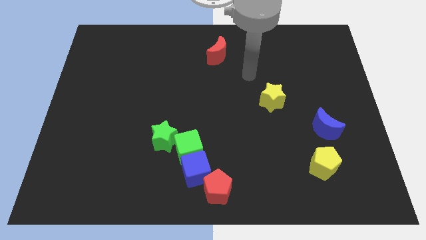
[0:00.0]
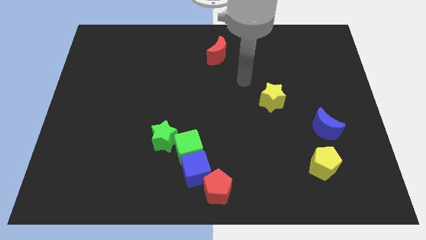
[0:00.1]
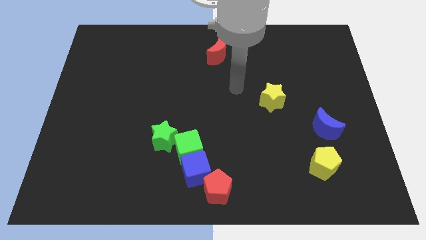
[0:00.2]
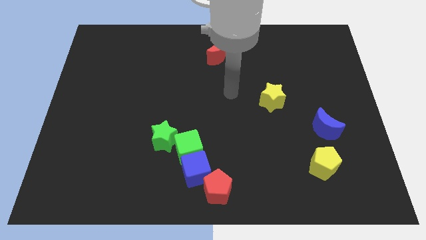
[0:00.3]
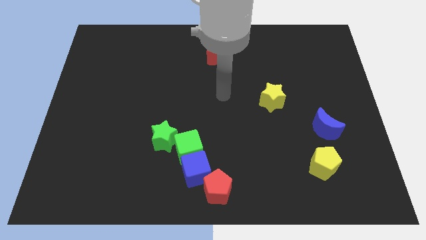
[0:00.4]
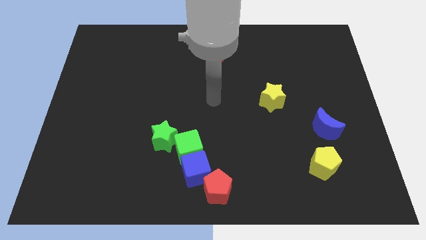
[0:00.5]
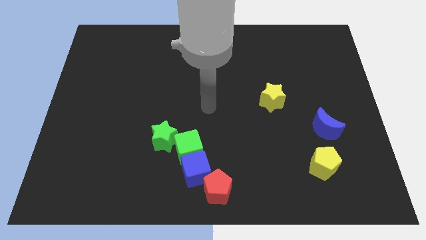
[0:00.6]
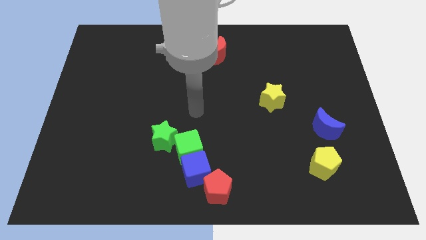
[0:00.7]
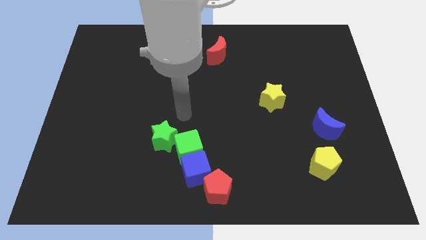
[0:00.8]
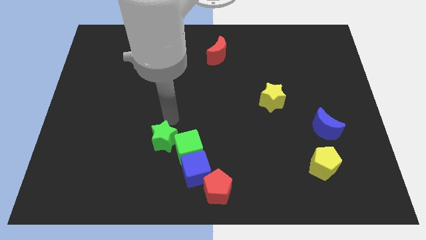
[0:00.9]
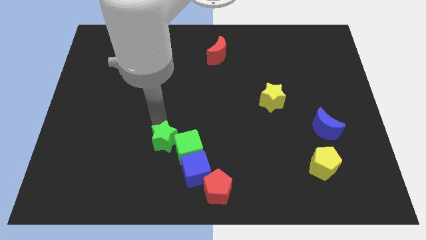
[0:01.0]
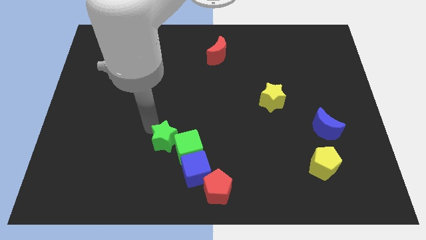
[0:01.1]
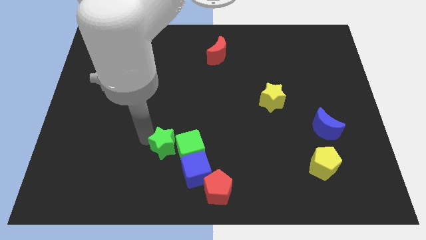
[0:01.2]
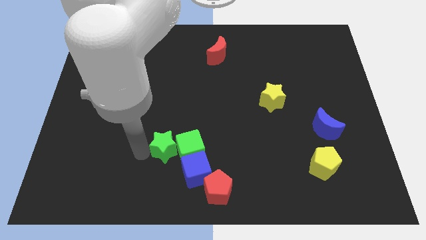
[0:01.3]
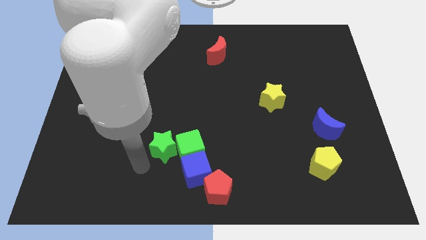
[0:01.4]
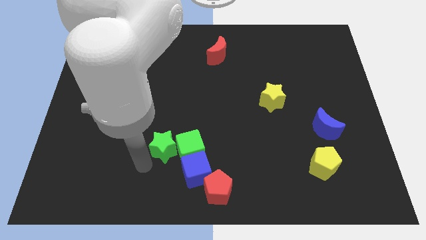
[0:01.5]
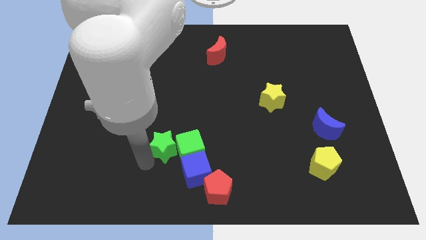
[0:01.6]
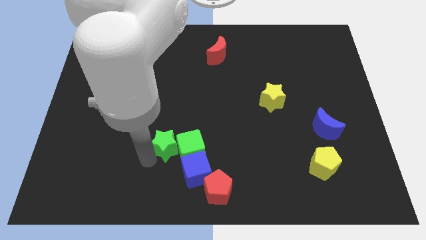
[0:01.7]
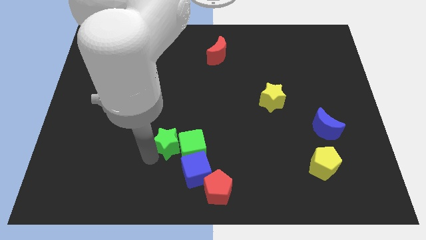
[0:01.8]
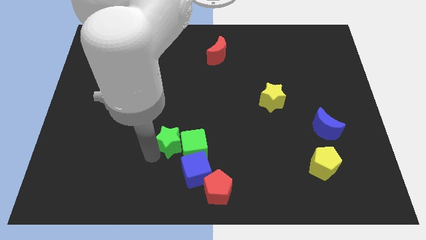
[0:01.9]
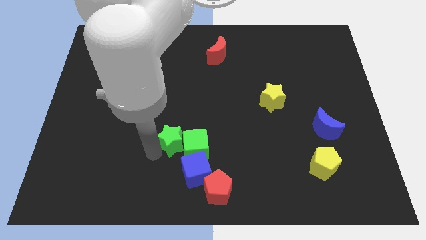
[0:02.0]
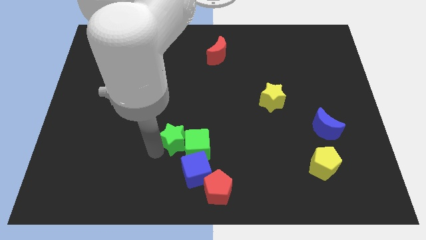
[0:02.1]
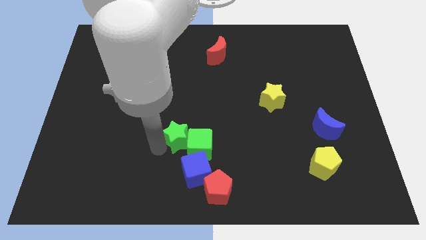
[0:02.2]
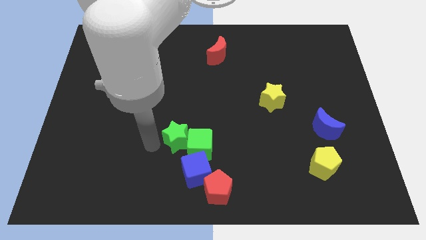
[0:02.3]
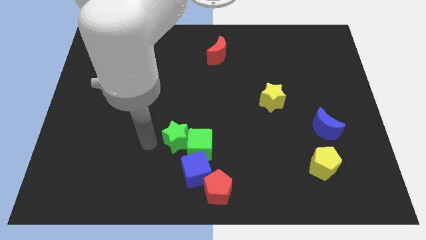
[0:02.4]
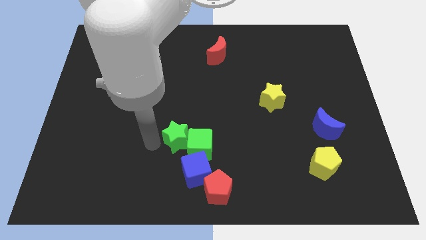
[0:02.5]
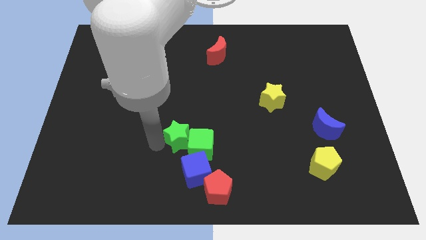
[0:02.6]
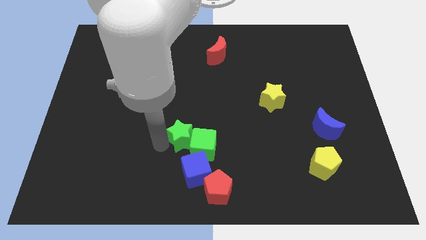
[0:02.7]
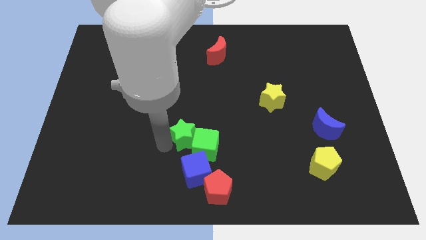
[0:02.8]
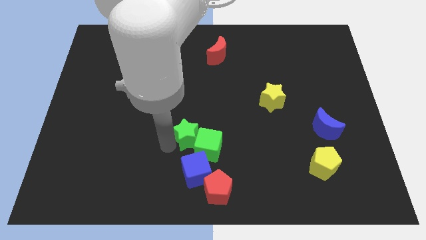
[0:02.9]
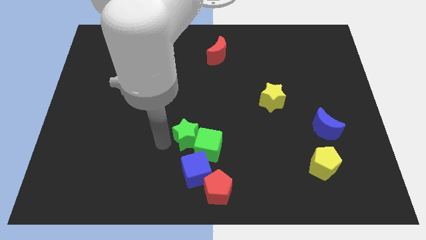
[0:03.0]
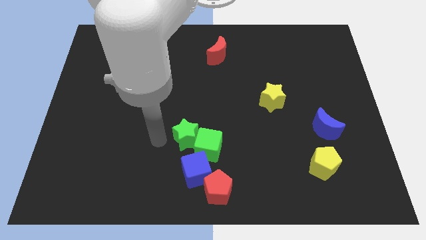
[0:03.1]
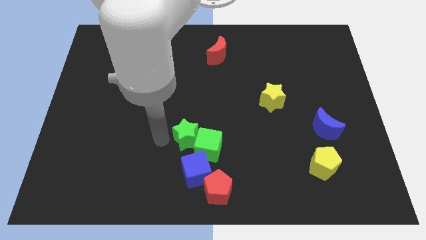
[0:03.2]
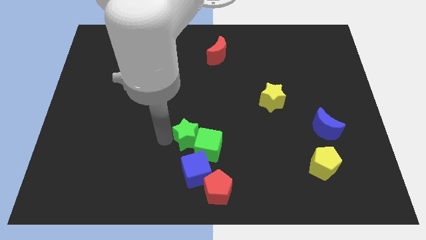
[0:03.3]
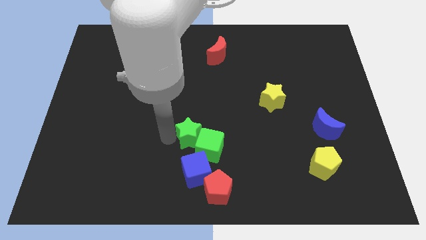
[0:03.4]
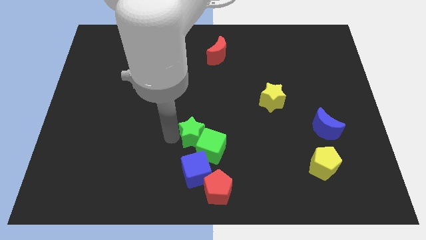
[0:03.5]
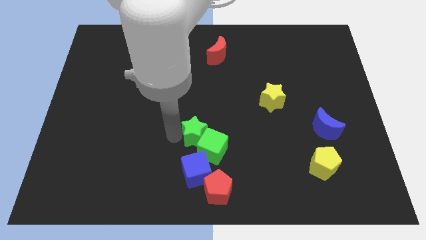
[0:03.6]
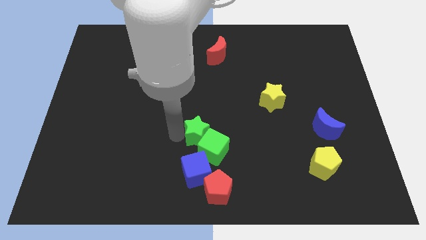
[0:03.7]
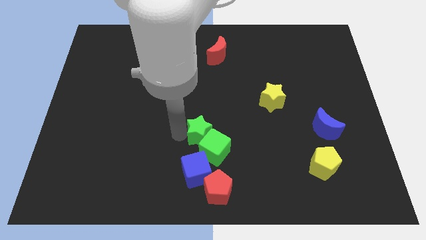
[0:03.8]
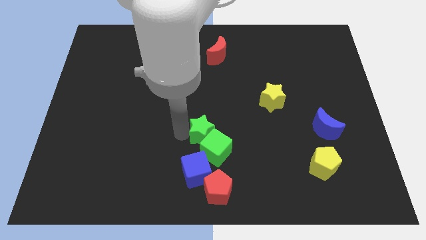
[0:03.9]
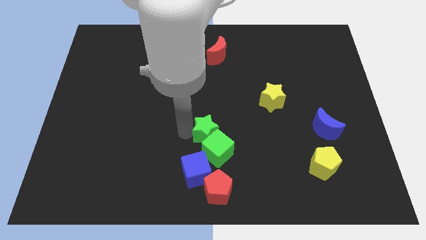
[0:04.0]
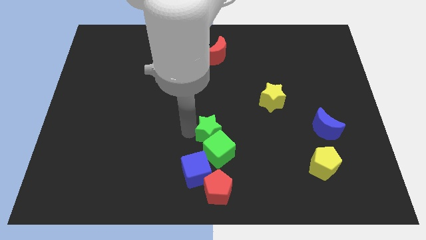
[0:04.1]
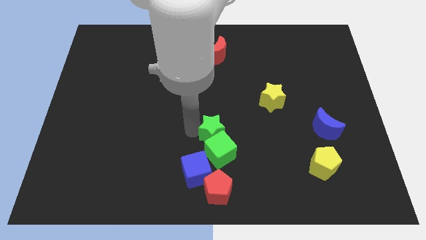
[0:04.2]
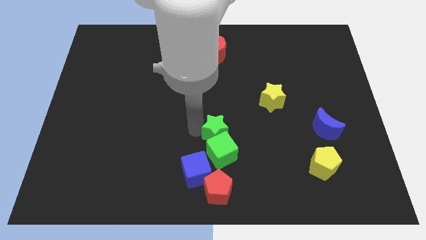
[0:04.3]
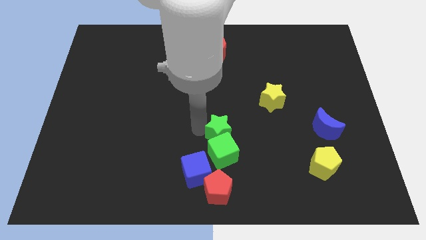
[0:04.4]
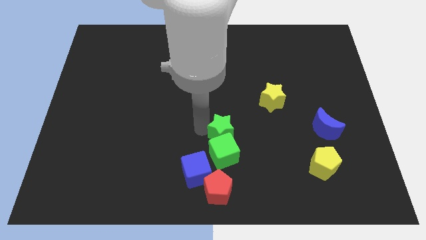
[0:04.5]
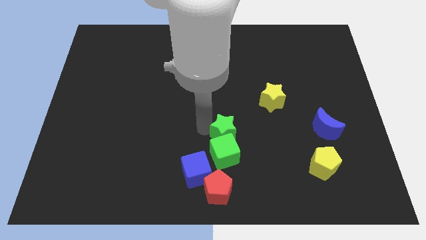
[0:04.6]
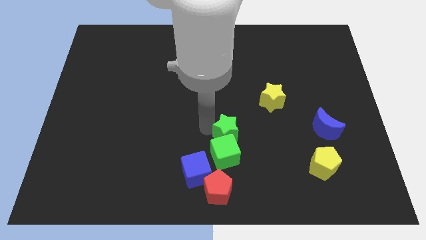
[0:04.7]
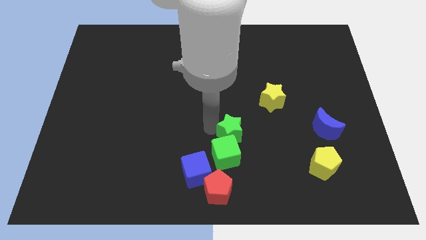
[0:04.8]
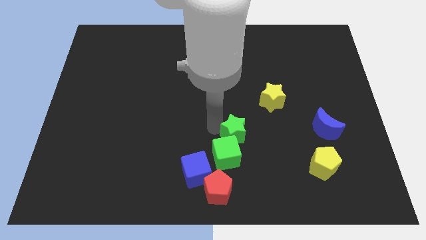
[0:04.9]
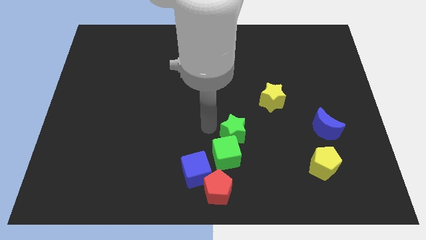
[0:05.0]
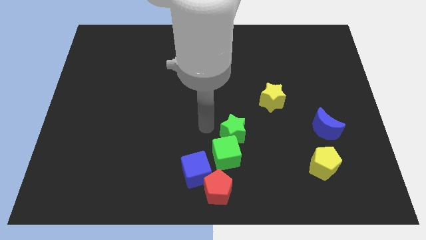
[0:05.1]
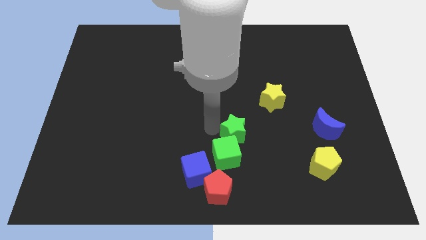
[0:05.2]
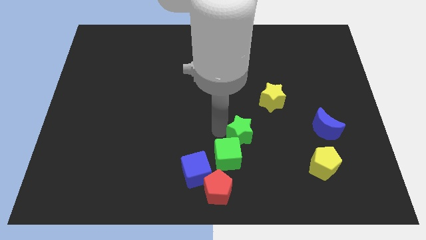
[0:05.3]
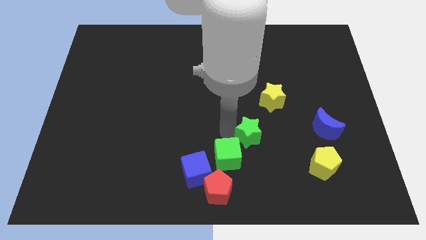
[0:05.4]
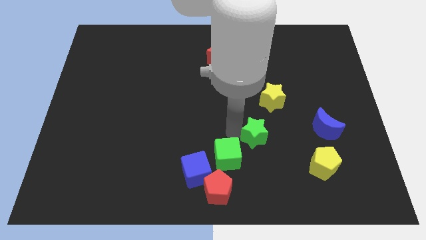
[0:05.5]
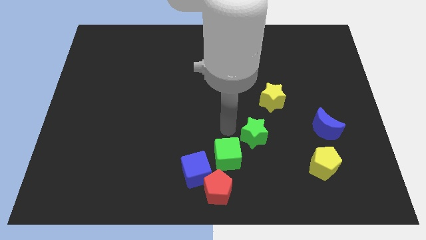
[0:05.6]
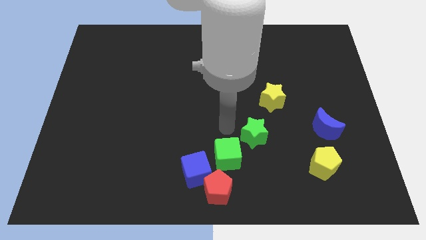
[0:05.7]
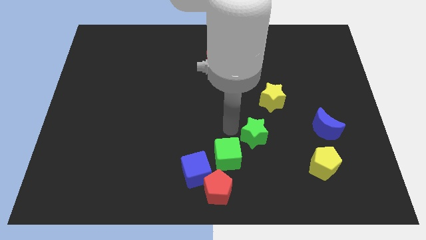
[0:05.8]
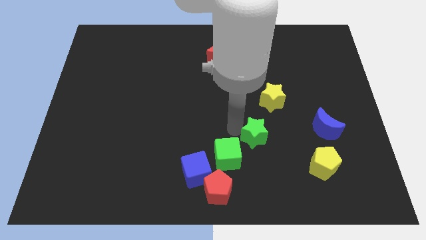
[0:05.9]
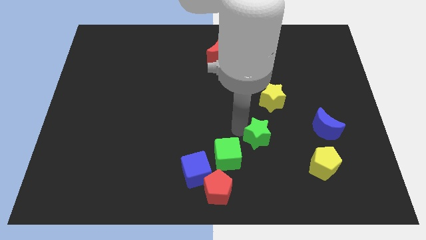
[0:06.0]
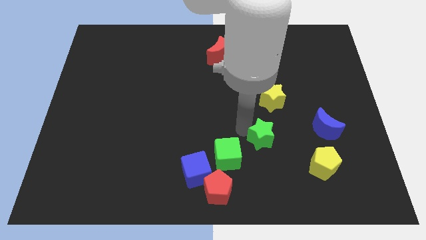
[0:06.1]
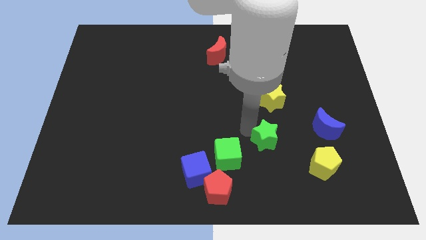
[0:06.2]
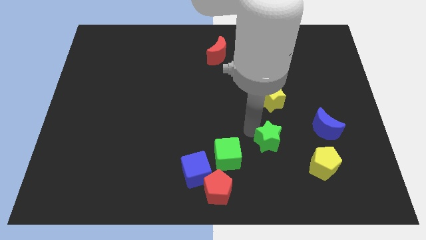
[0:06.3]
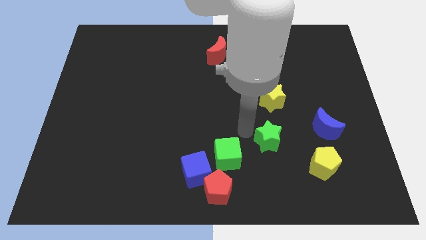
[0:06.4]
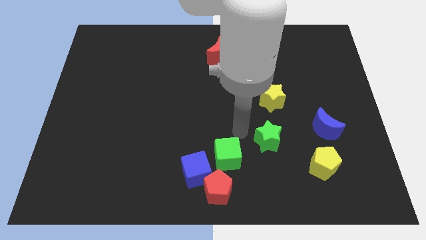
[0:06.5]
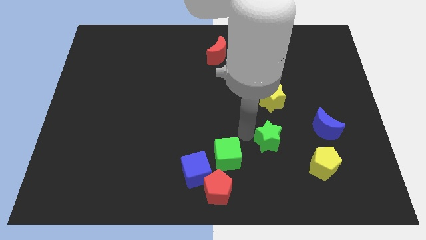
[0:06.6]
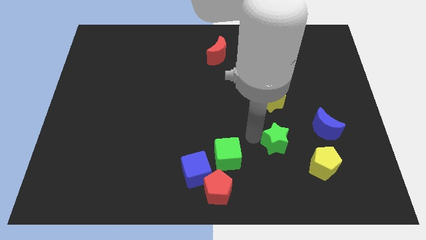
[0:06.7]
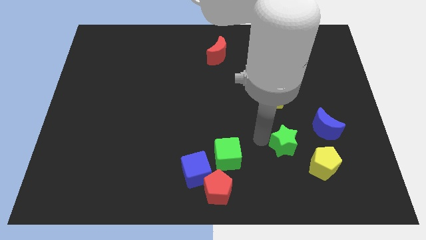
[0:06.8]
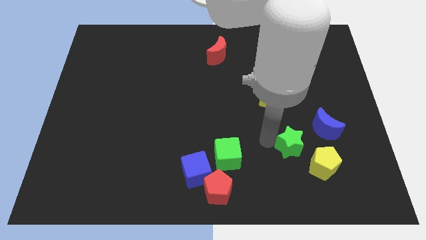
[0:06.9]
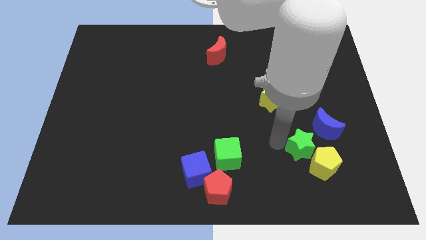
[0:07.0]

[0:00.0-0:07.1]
move the green star to the yellow pentagon
